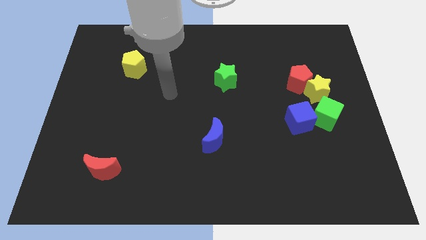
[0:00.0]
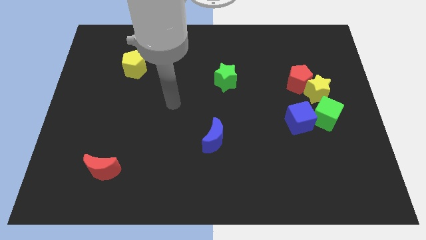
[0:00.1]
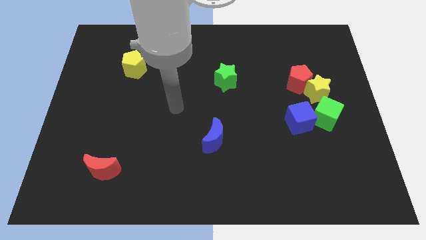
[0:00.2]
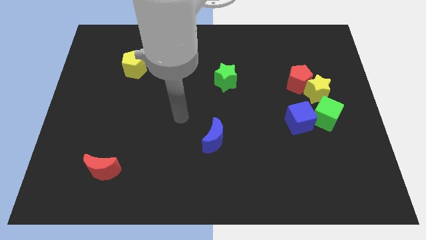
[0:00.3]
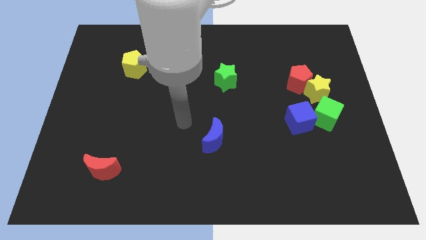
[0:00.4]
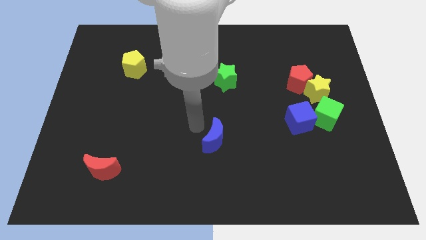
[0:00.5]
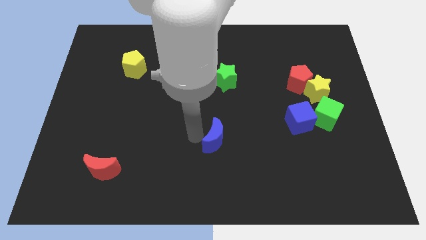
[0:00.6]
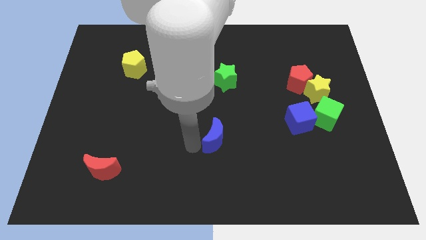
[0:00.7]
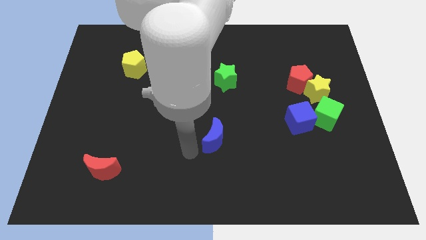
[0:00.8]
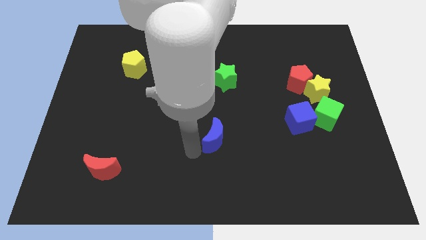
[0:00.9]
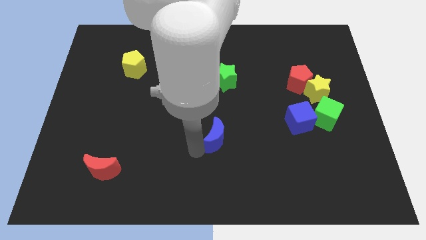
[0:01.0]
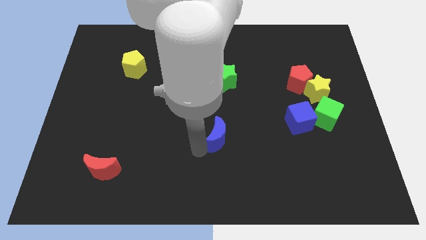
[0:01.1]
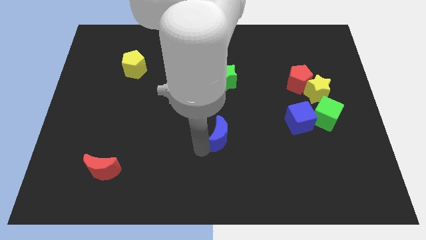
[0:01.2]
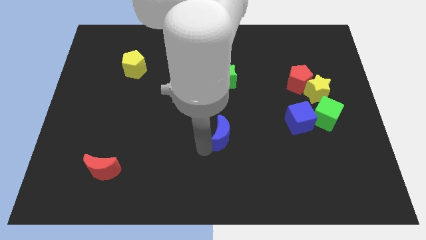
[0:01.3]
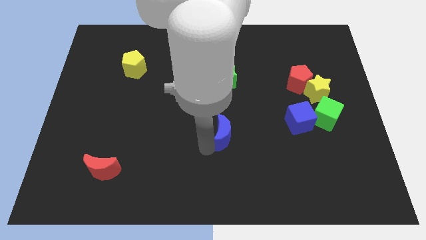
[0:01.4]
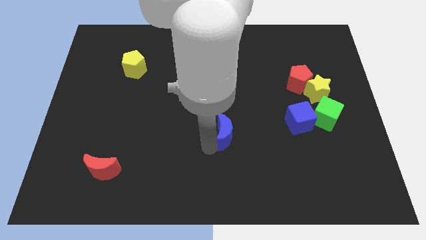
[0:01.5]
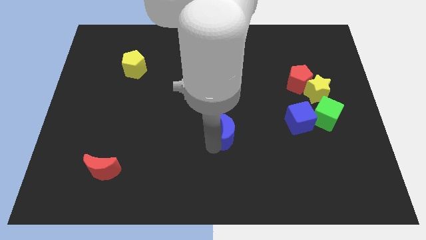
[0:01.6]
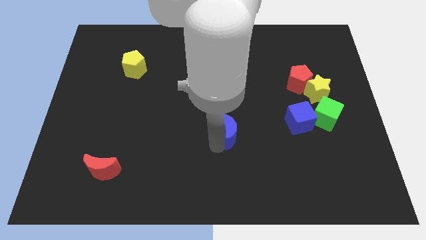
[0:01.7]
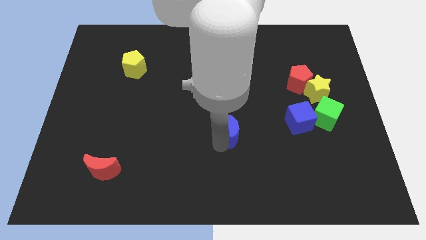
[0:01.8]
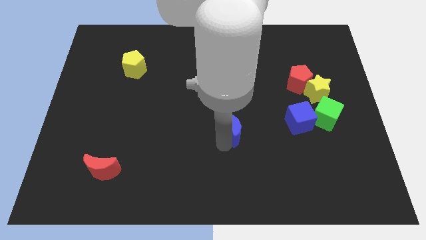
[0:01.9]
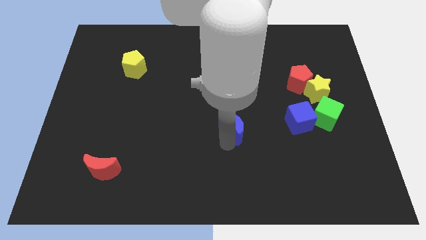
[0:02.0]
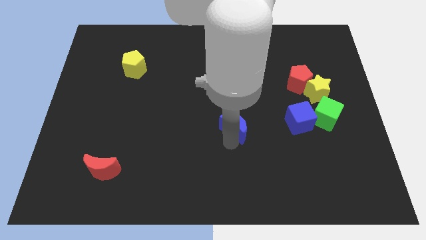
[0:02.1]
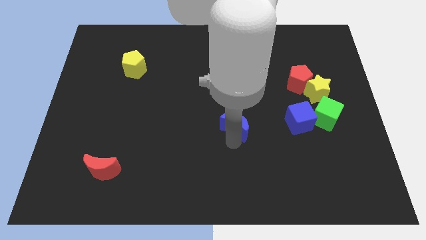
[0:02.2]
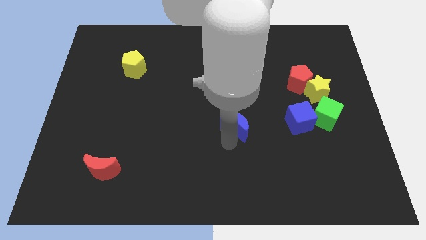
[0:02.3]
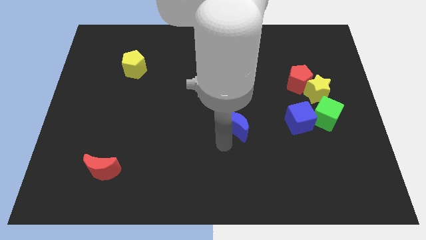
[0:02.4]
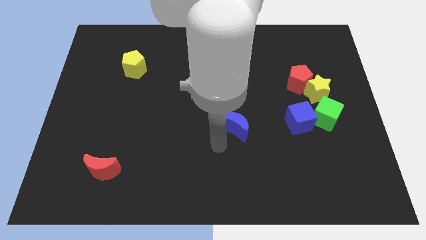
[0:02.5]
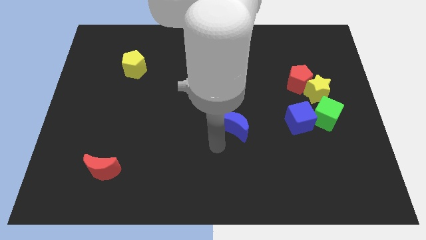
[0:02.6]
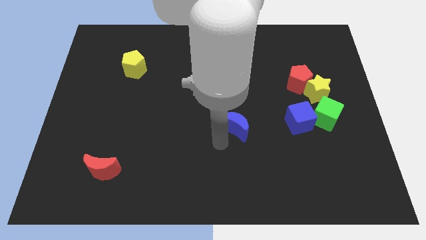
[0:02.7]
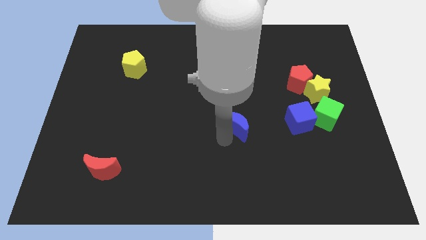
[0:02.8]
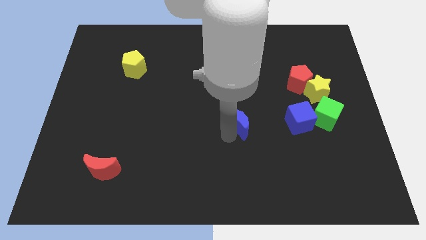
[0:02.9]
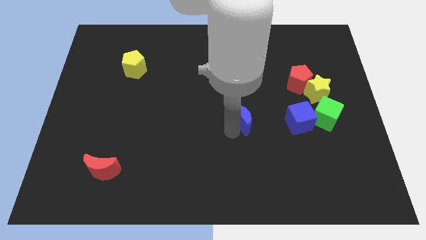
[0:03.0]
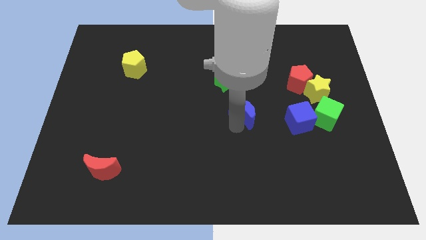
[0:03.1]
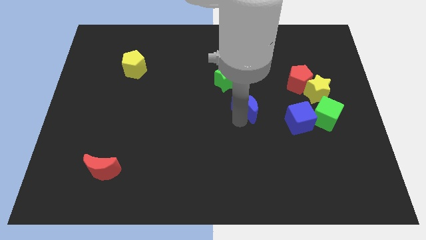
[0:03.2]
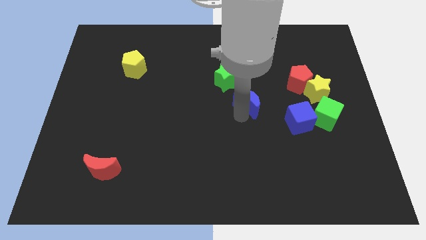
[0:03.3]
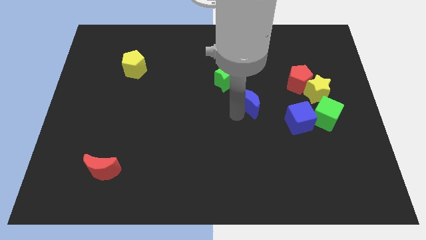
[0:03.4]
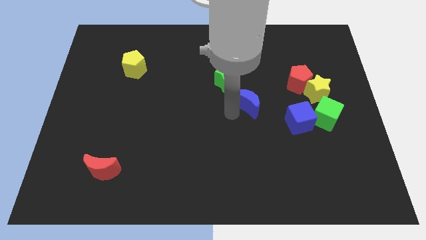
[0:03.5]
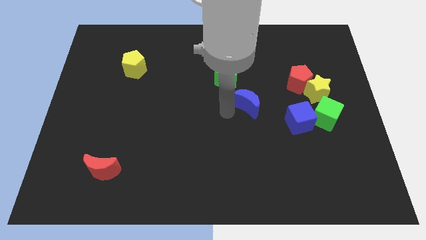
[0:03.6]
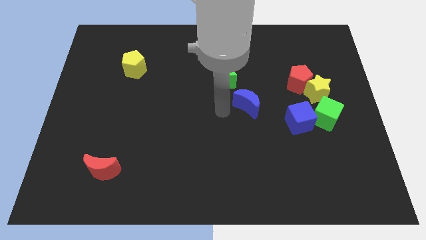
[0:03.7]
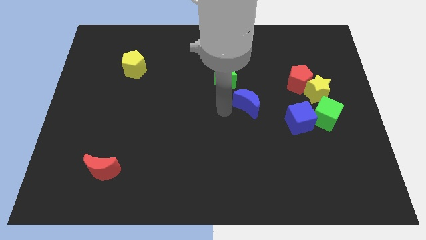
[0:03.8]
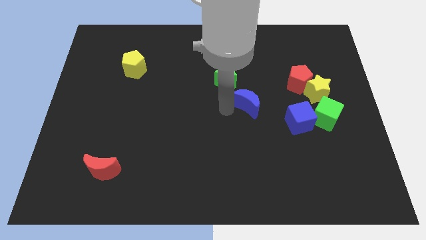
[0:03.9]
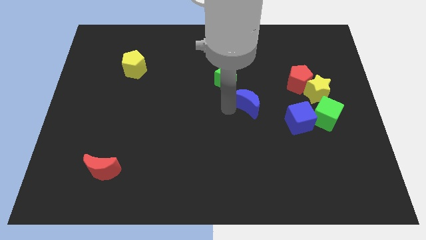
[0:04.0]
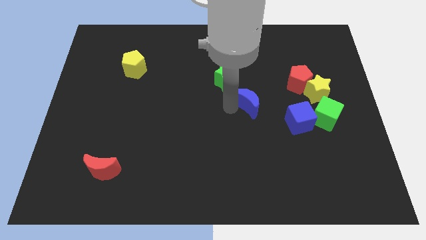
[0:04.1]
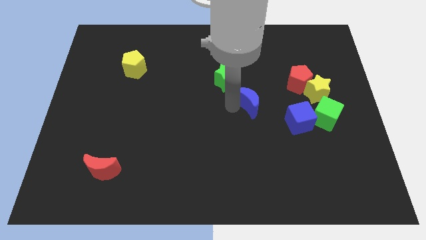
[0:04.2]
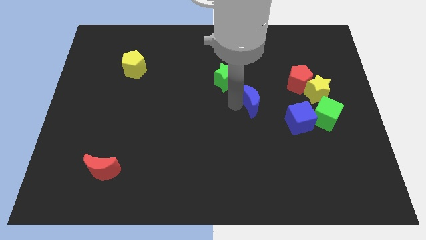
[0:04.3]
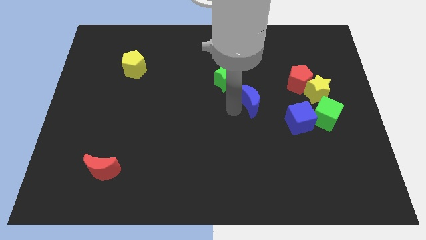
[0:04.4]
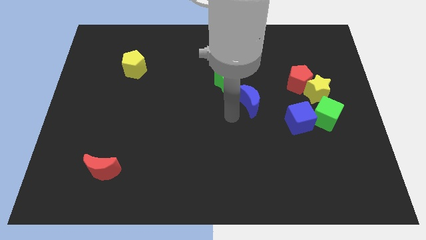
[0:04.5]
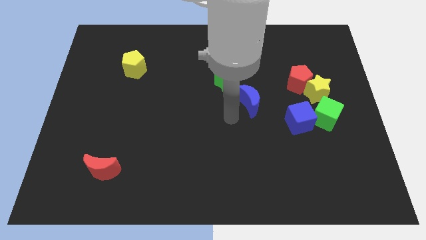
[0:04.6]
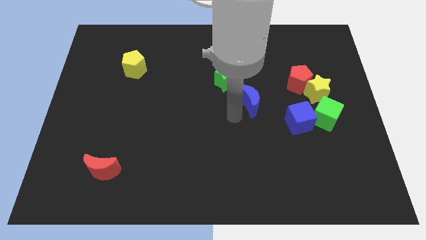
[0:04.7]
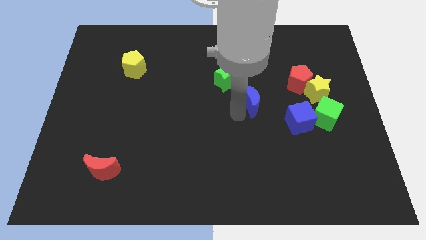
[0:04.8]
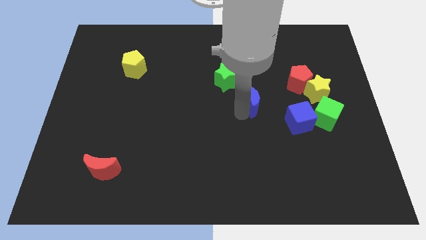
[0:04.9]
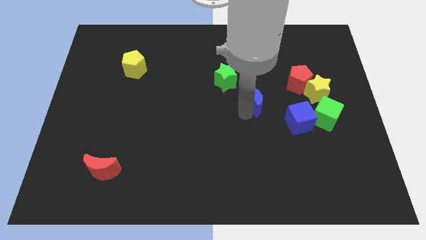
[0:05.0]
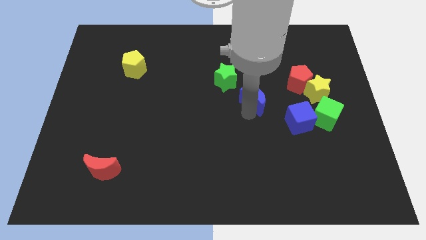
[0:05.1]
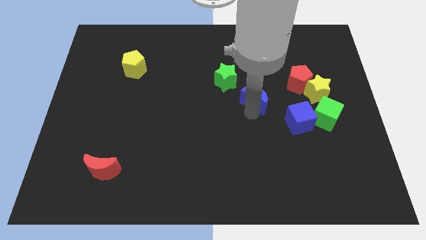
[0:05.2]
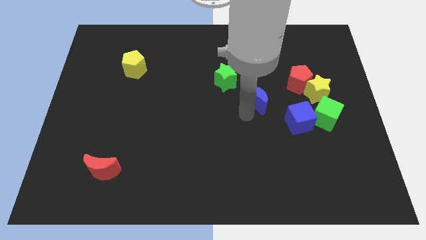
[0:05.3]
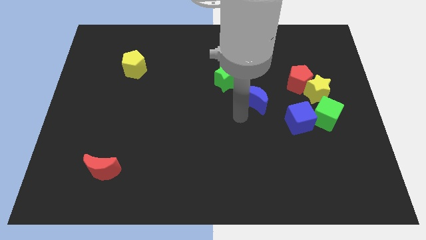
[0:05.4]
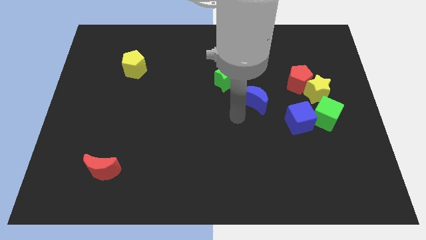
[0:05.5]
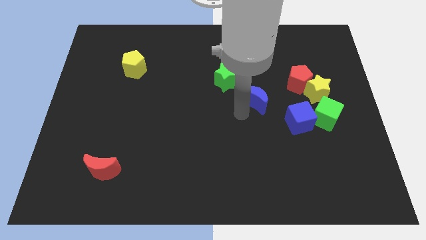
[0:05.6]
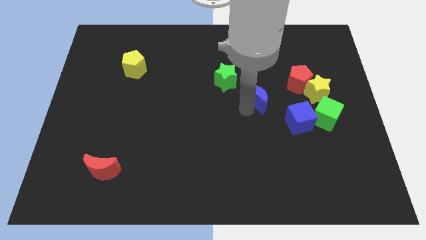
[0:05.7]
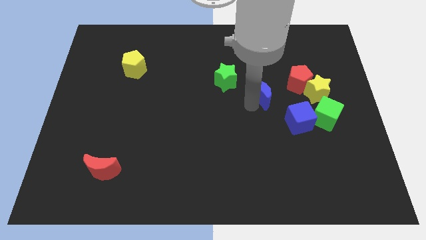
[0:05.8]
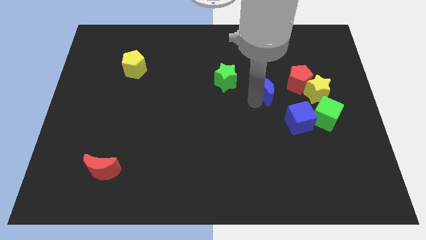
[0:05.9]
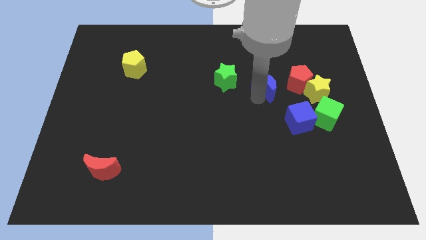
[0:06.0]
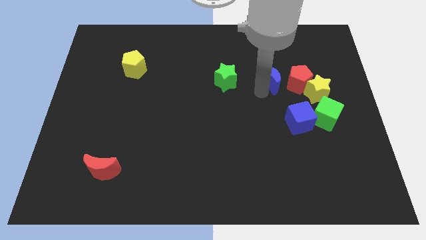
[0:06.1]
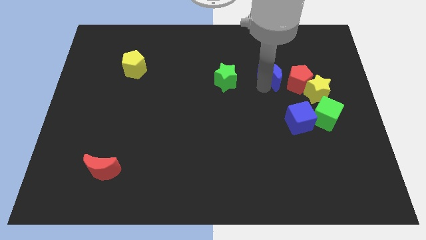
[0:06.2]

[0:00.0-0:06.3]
put the blue moon to the top left side of the yellow star

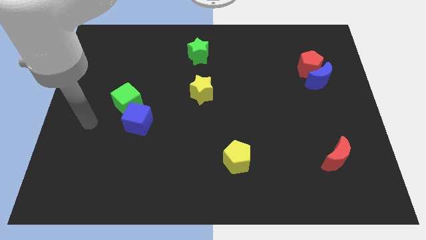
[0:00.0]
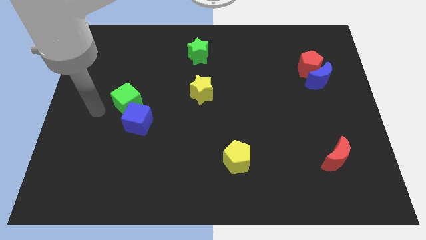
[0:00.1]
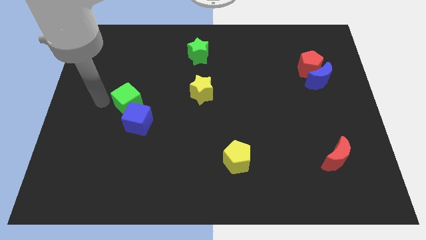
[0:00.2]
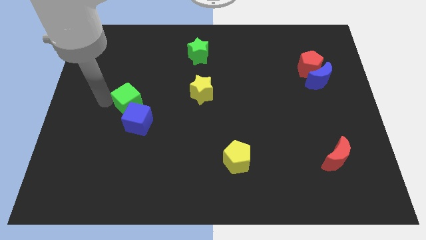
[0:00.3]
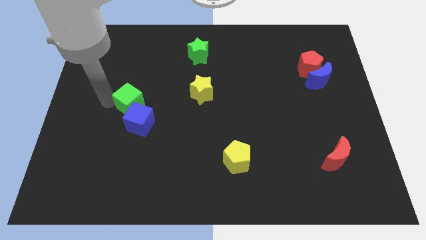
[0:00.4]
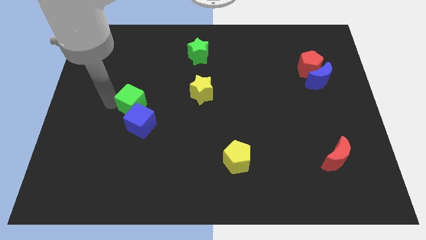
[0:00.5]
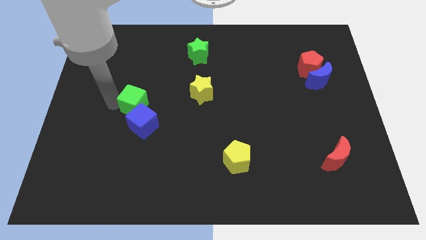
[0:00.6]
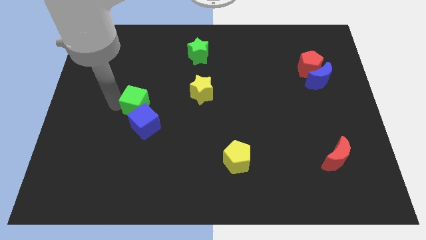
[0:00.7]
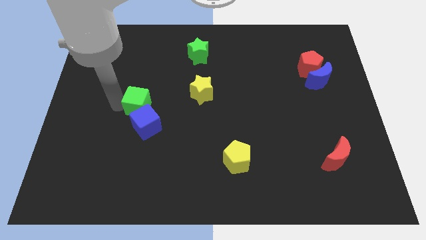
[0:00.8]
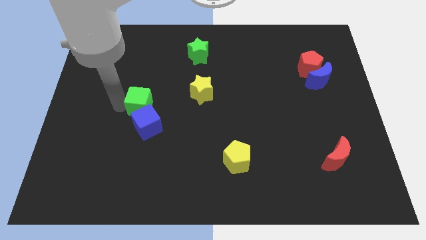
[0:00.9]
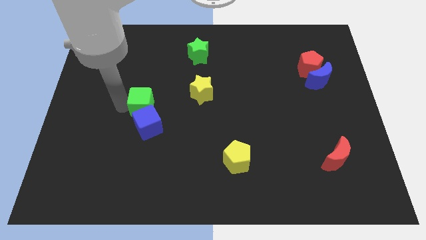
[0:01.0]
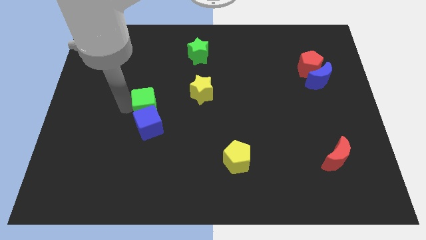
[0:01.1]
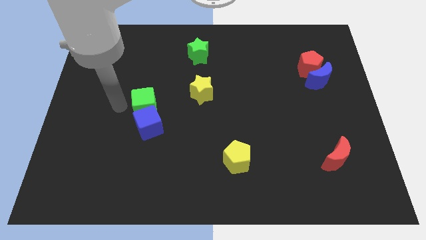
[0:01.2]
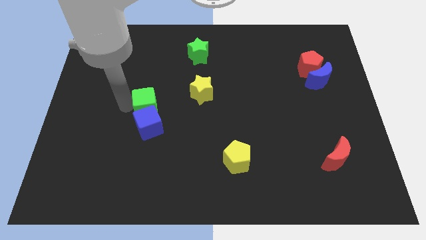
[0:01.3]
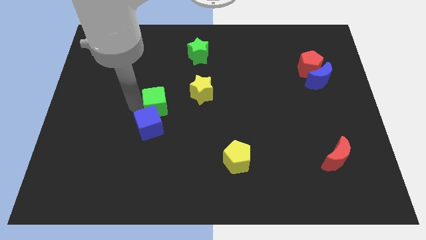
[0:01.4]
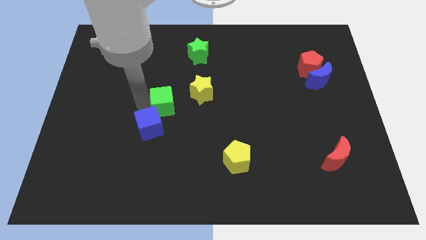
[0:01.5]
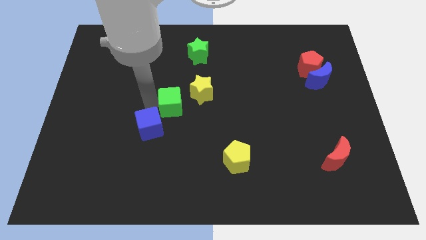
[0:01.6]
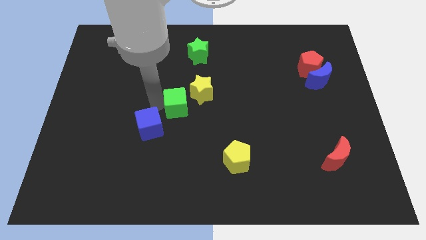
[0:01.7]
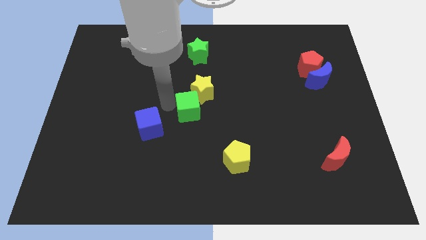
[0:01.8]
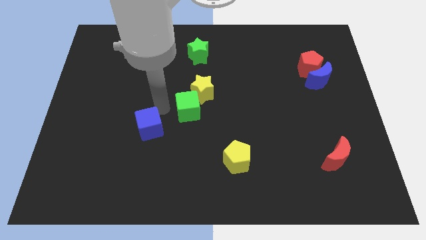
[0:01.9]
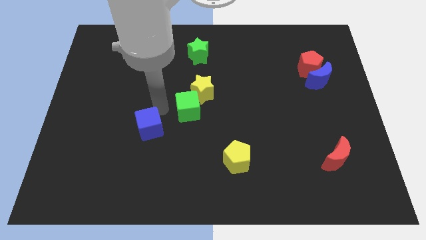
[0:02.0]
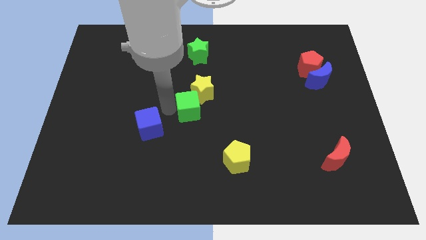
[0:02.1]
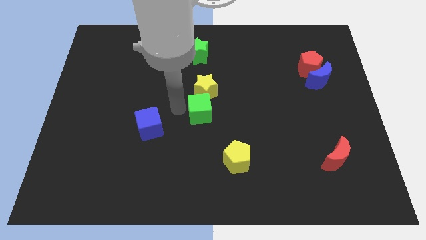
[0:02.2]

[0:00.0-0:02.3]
slide the green cube to the bottom right side of the yellow star
